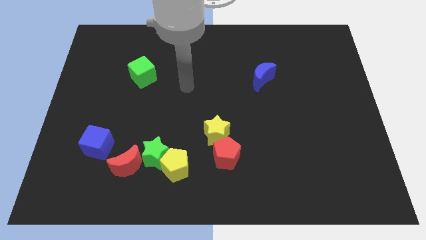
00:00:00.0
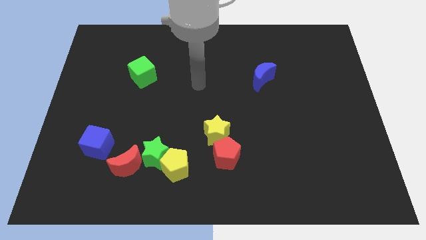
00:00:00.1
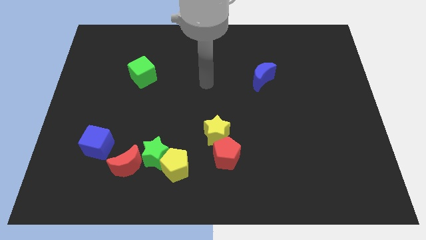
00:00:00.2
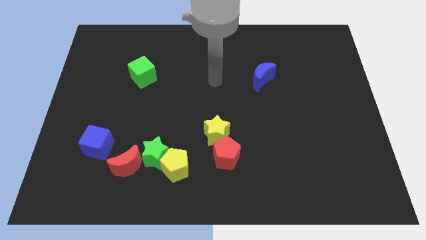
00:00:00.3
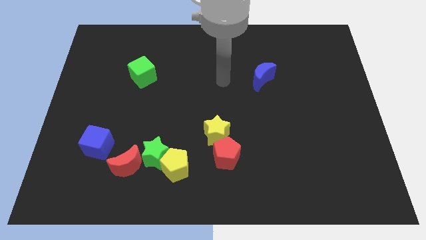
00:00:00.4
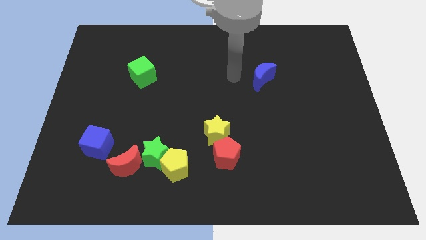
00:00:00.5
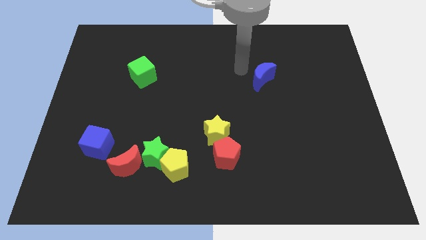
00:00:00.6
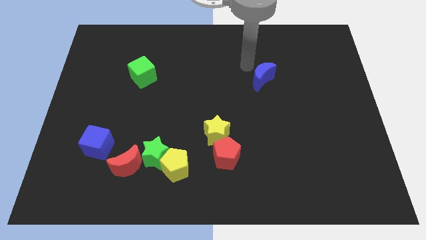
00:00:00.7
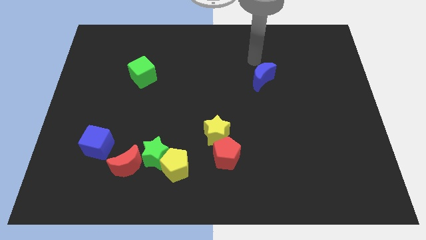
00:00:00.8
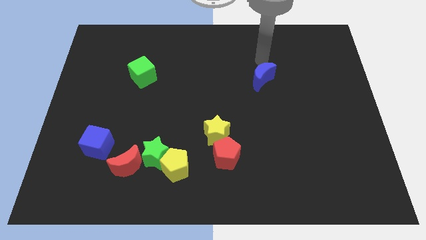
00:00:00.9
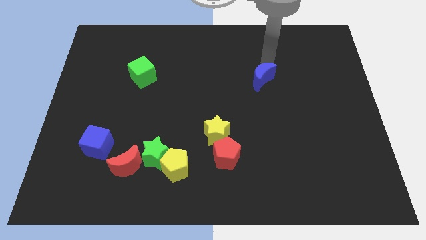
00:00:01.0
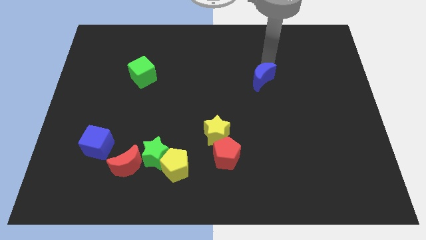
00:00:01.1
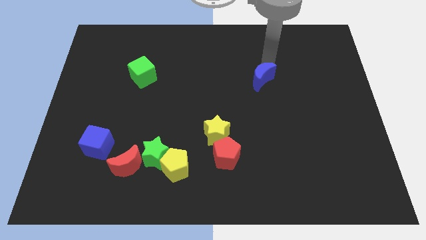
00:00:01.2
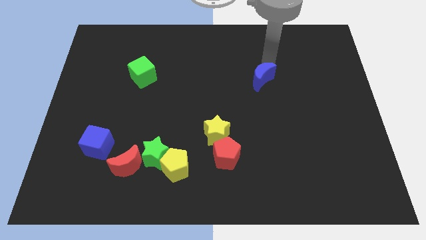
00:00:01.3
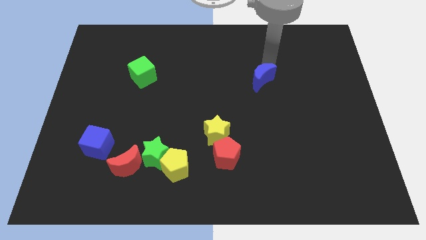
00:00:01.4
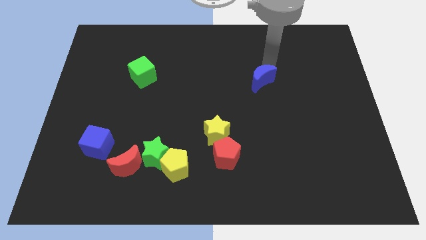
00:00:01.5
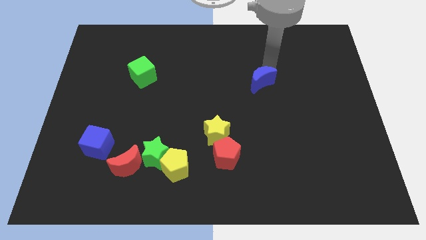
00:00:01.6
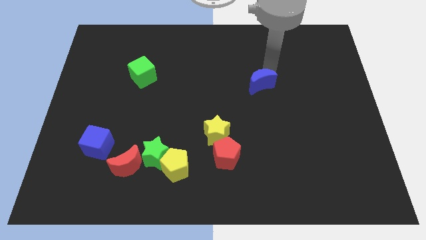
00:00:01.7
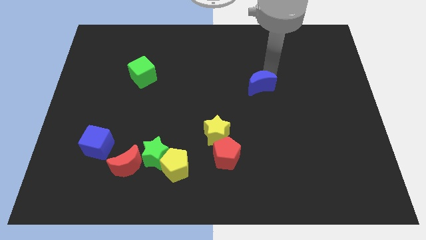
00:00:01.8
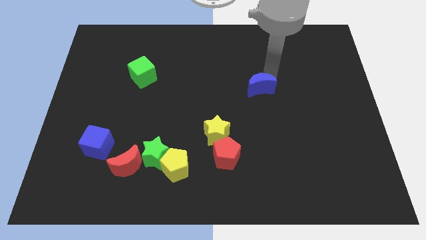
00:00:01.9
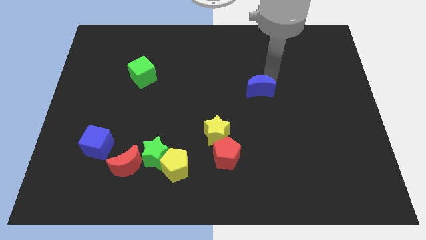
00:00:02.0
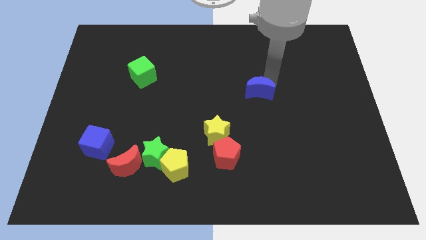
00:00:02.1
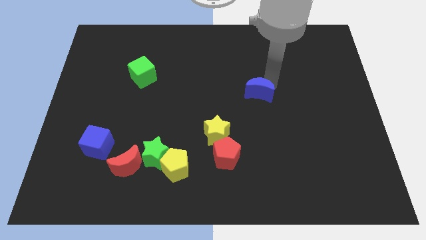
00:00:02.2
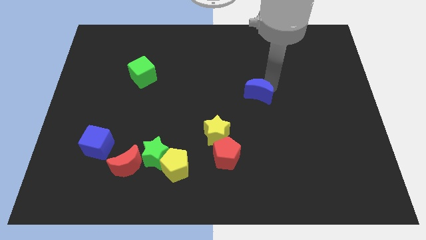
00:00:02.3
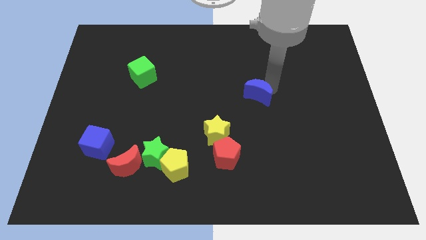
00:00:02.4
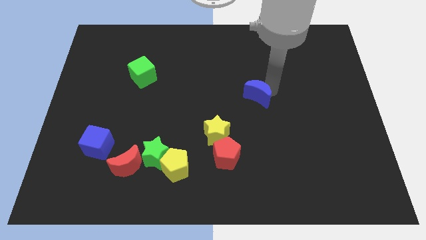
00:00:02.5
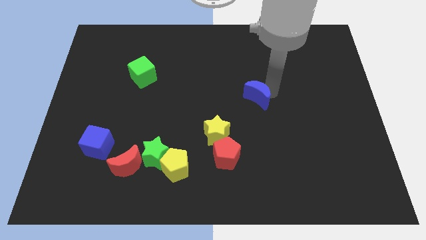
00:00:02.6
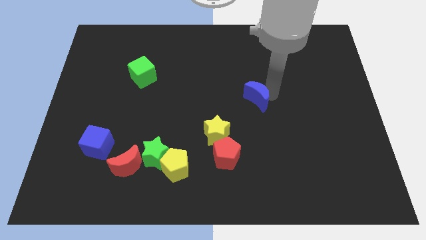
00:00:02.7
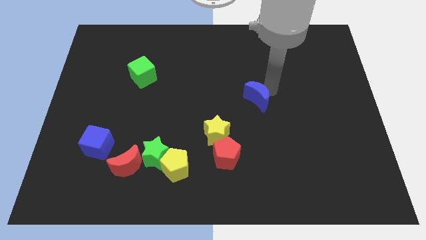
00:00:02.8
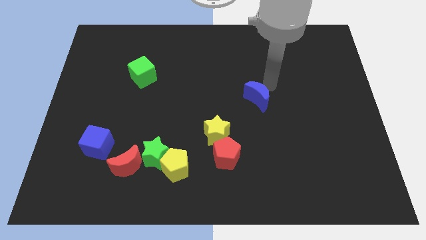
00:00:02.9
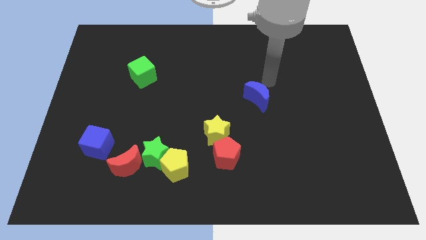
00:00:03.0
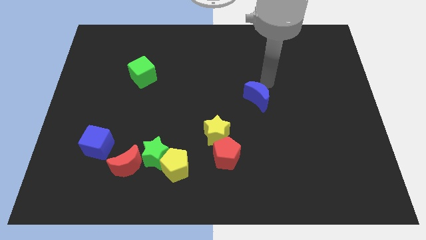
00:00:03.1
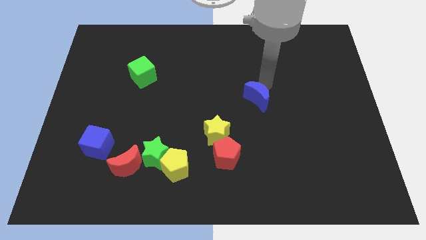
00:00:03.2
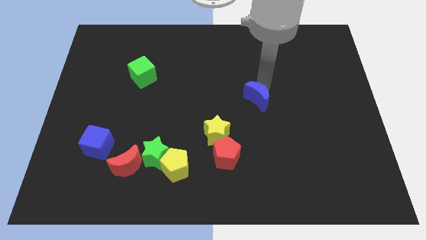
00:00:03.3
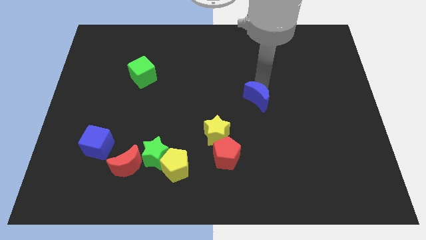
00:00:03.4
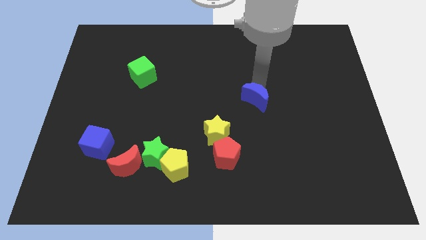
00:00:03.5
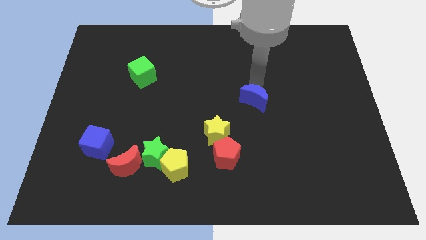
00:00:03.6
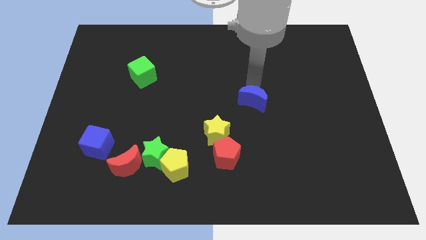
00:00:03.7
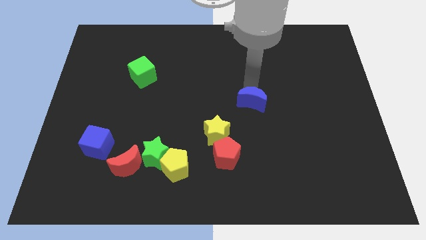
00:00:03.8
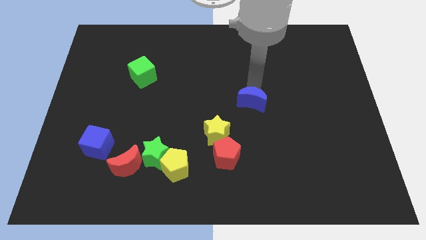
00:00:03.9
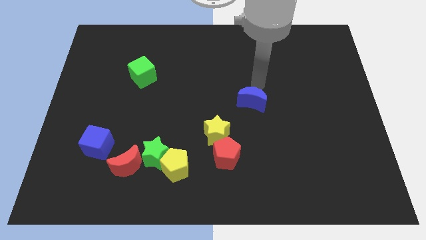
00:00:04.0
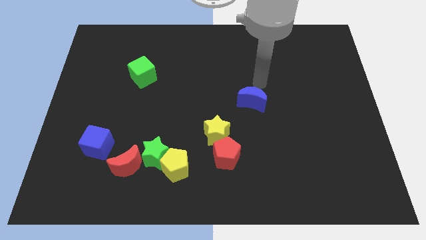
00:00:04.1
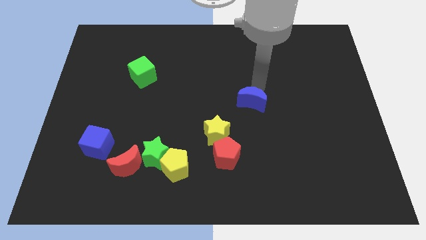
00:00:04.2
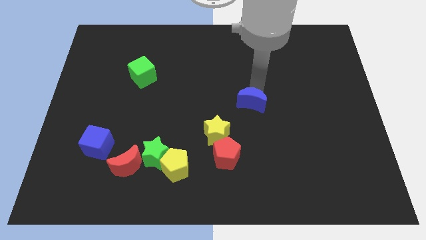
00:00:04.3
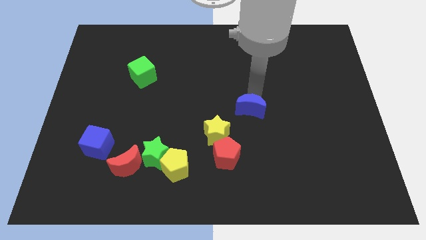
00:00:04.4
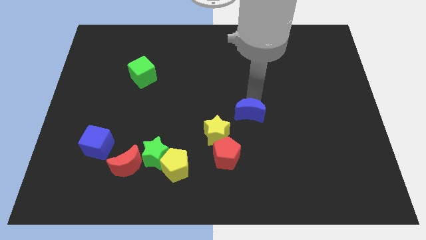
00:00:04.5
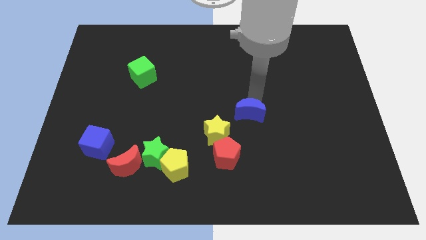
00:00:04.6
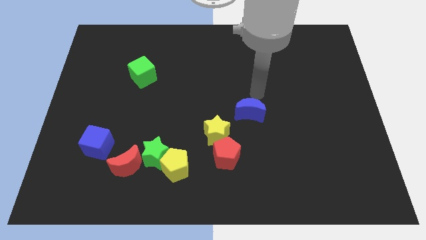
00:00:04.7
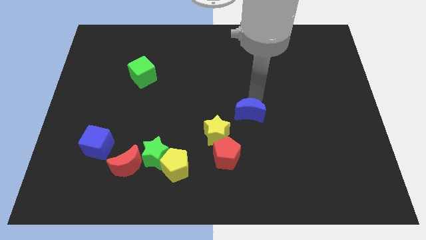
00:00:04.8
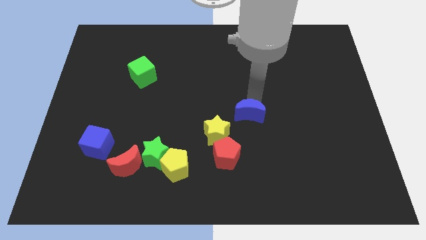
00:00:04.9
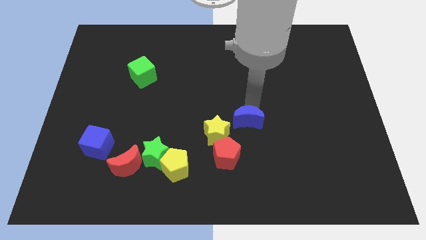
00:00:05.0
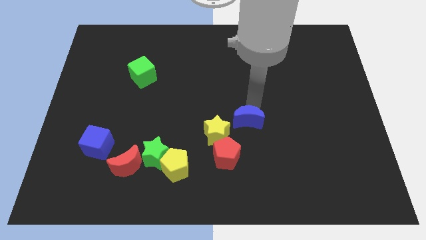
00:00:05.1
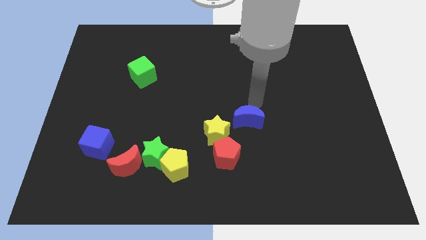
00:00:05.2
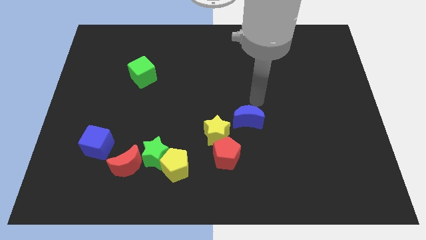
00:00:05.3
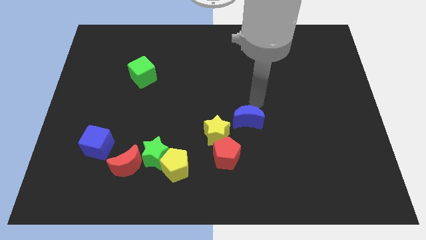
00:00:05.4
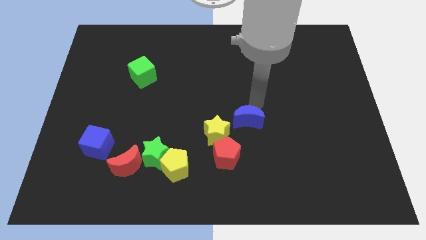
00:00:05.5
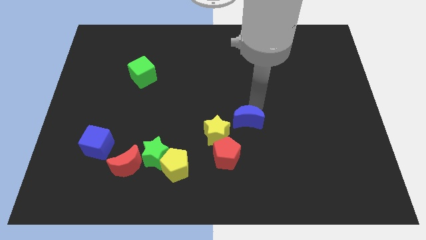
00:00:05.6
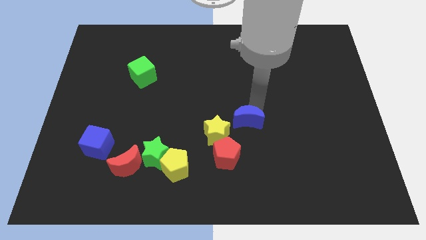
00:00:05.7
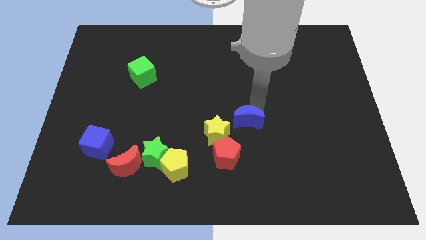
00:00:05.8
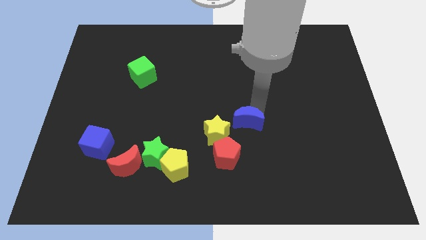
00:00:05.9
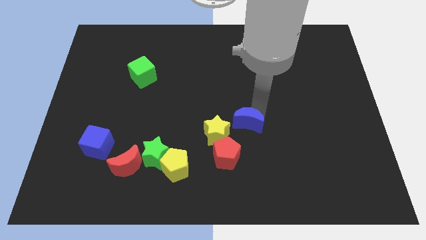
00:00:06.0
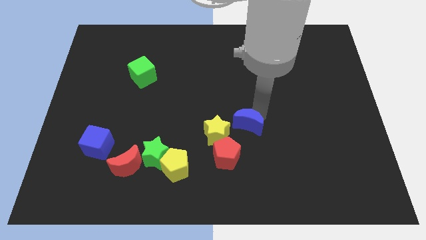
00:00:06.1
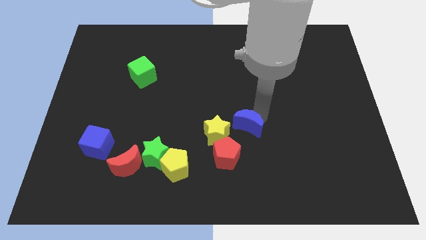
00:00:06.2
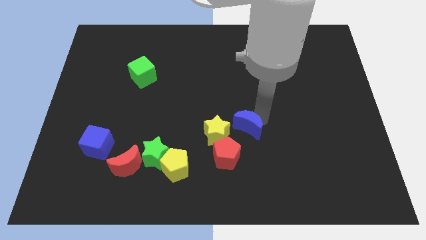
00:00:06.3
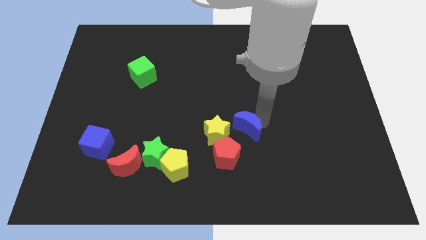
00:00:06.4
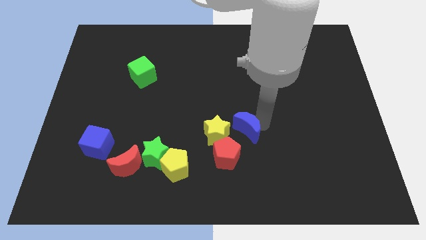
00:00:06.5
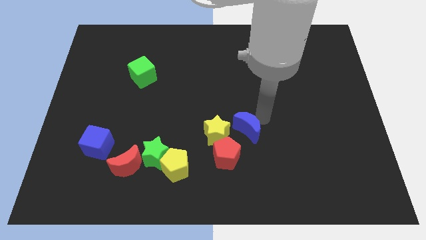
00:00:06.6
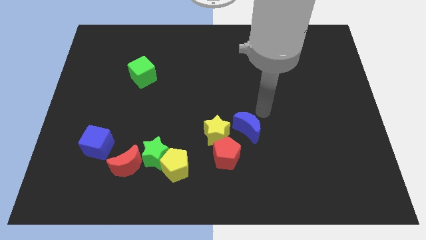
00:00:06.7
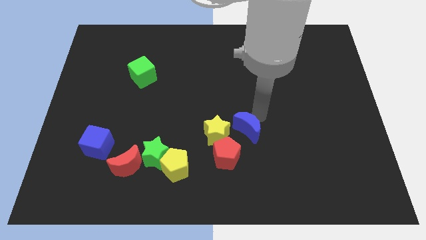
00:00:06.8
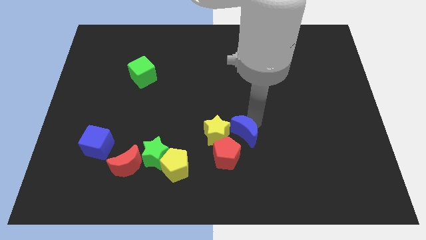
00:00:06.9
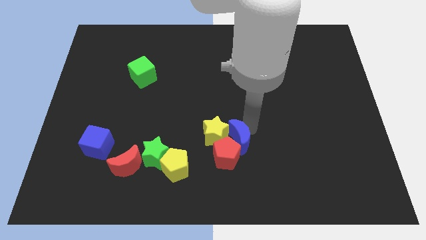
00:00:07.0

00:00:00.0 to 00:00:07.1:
put the blue moon towards the red pentagon
